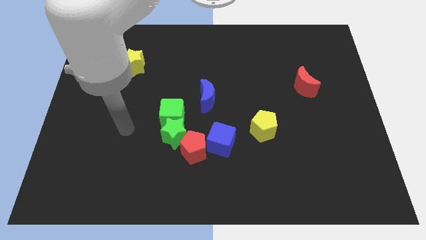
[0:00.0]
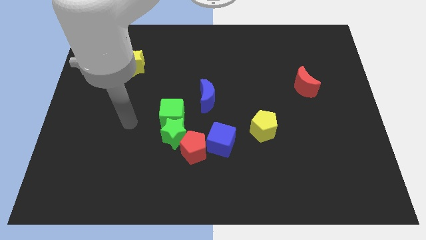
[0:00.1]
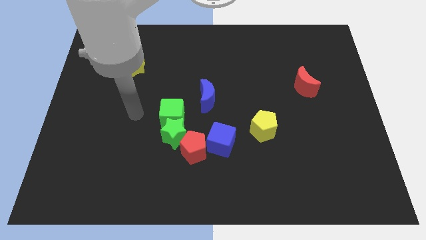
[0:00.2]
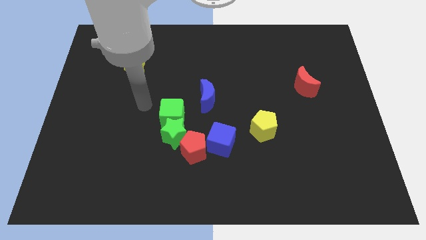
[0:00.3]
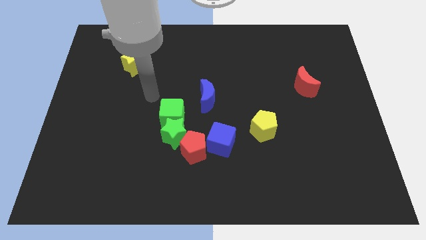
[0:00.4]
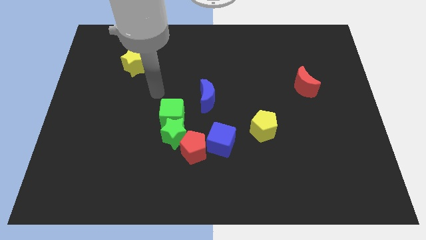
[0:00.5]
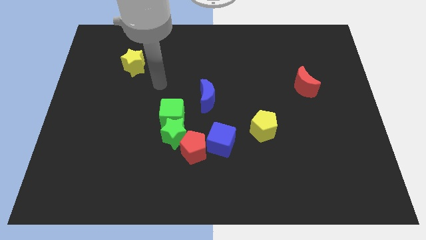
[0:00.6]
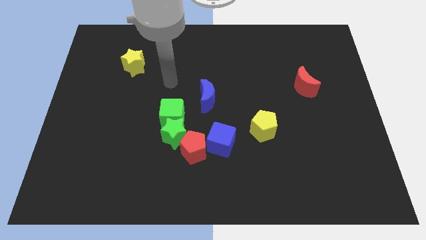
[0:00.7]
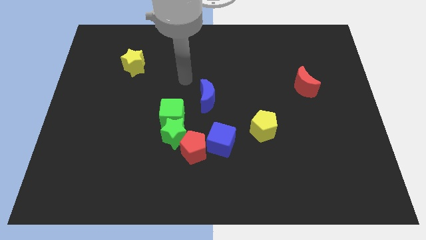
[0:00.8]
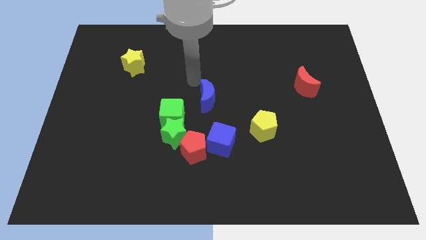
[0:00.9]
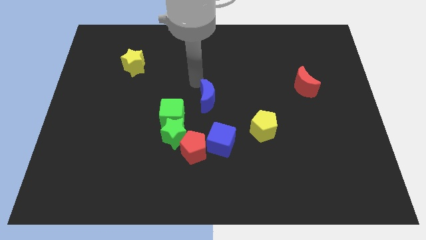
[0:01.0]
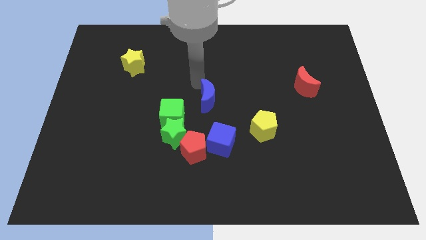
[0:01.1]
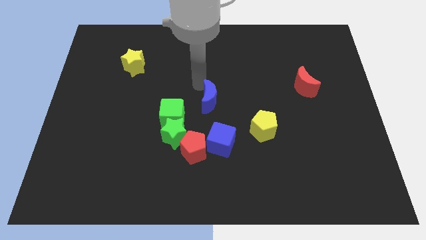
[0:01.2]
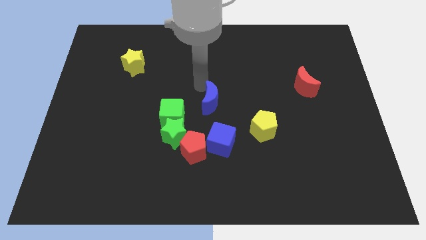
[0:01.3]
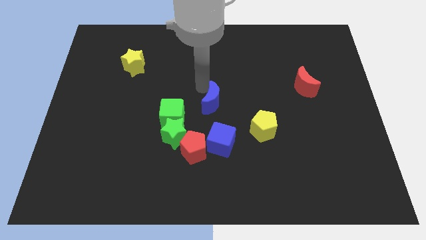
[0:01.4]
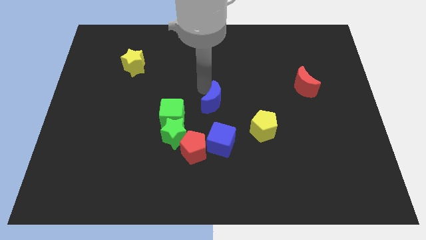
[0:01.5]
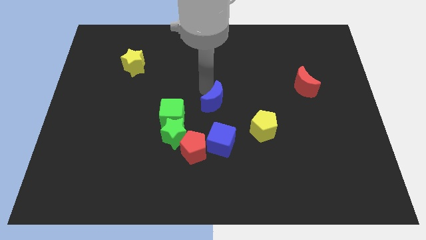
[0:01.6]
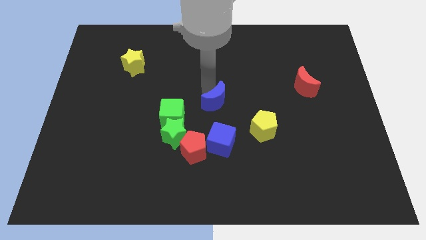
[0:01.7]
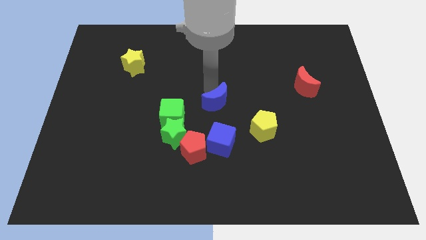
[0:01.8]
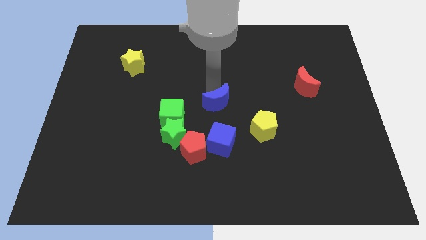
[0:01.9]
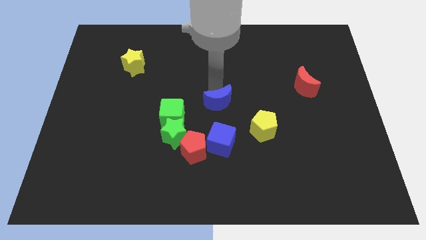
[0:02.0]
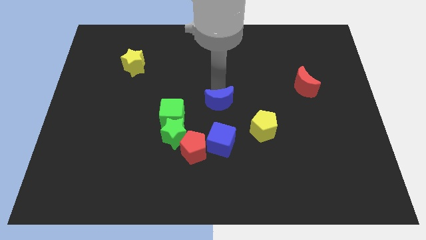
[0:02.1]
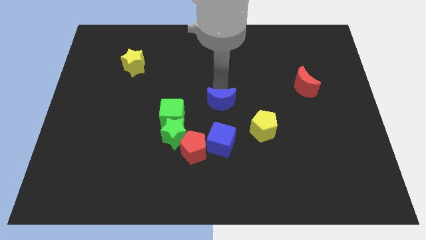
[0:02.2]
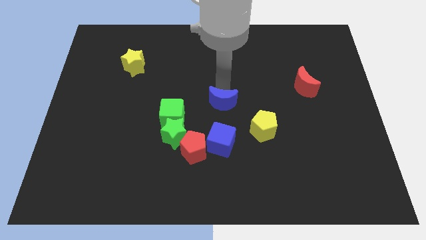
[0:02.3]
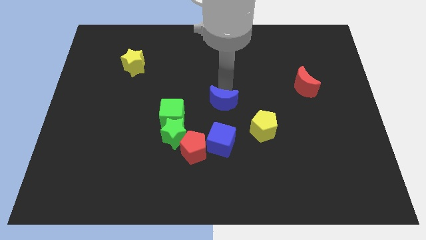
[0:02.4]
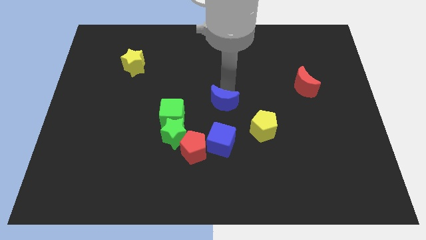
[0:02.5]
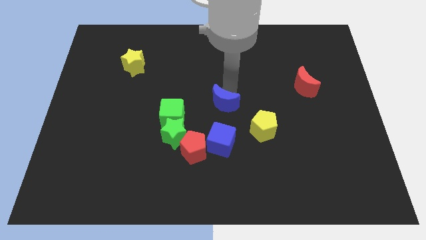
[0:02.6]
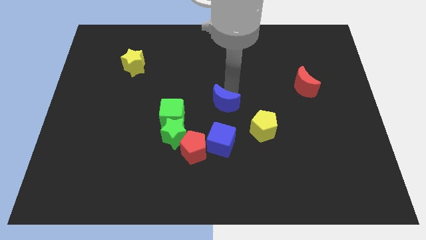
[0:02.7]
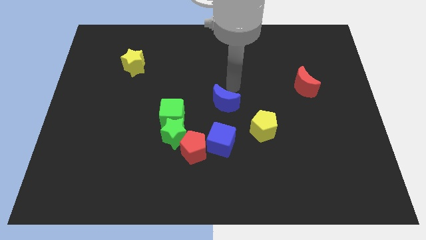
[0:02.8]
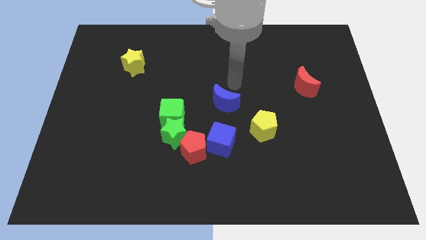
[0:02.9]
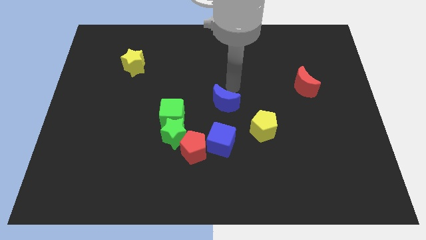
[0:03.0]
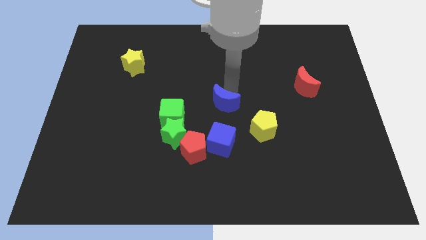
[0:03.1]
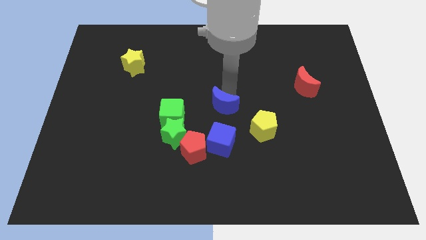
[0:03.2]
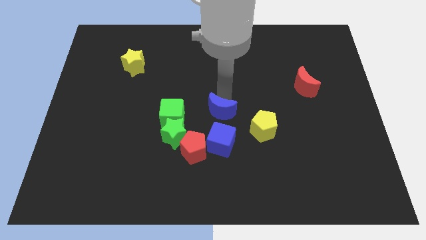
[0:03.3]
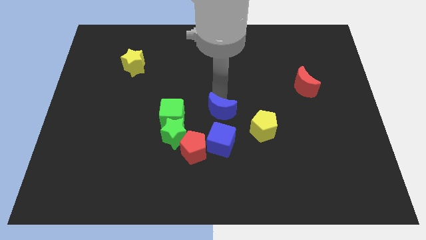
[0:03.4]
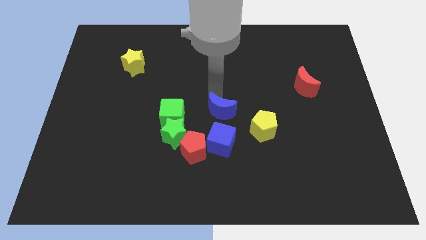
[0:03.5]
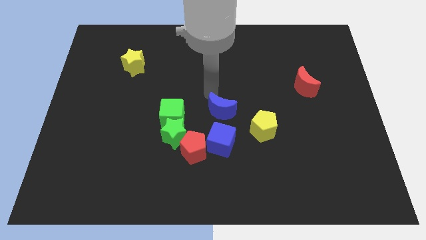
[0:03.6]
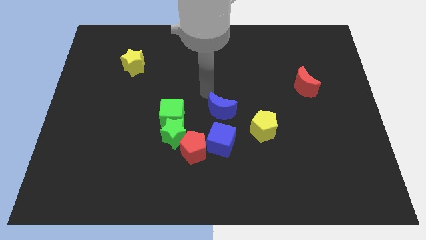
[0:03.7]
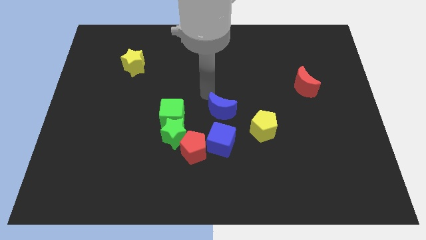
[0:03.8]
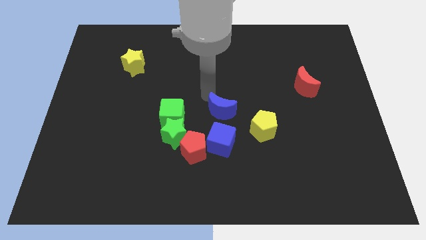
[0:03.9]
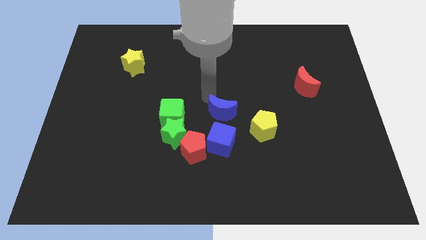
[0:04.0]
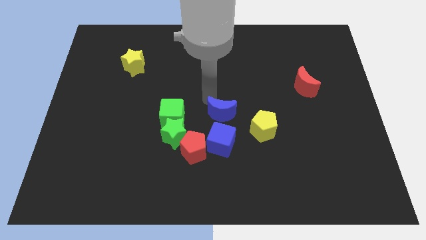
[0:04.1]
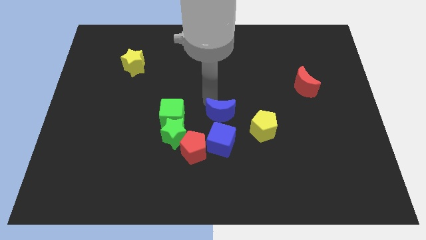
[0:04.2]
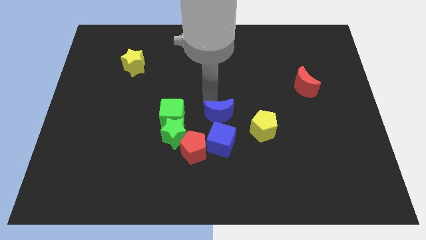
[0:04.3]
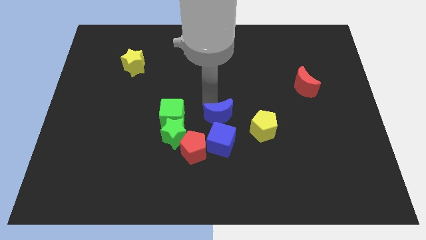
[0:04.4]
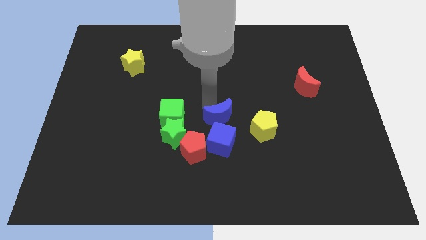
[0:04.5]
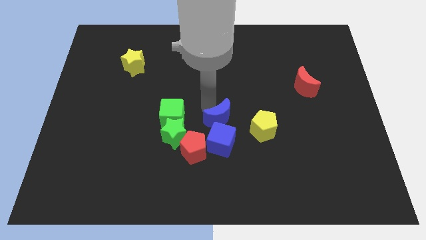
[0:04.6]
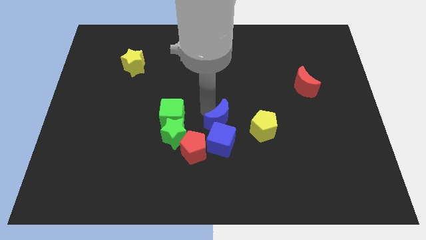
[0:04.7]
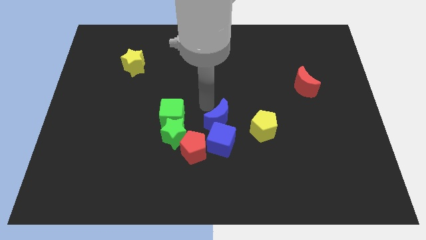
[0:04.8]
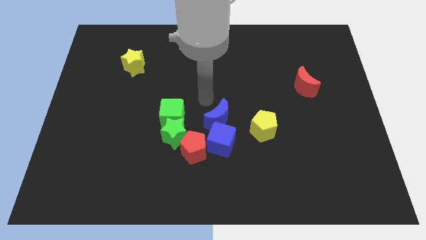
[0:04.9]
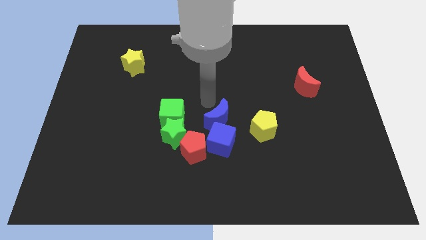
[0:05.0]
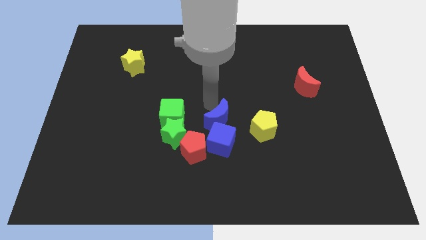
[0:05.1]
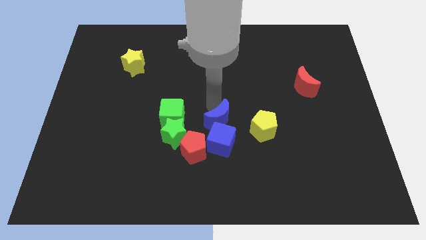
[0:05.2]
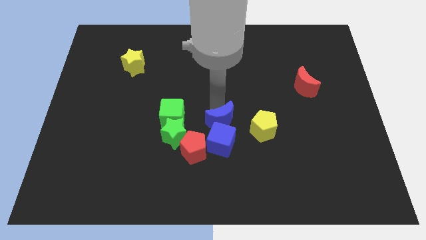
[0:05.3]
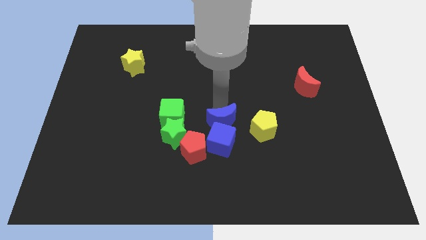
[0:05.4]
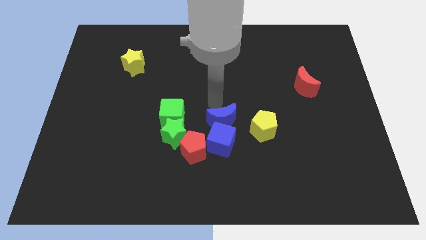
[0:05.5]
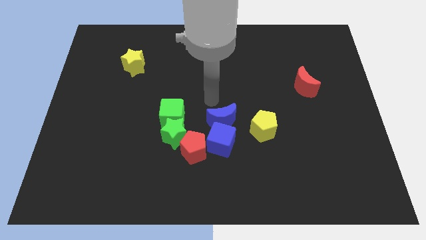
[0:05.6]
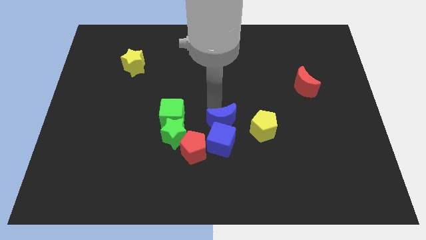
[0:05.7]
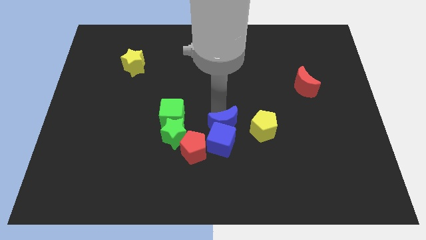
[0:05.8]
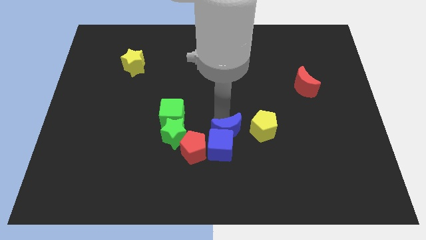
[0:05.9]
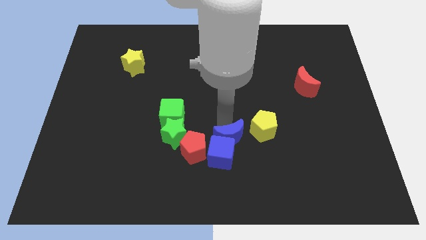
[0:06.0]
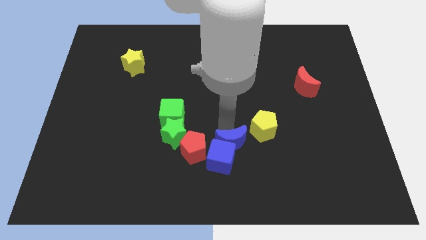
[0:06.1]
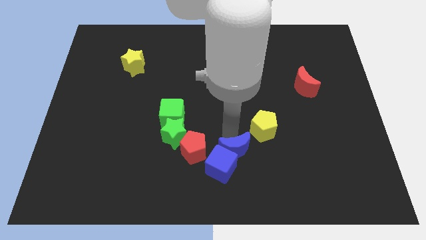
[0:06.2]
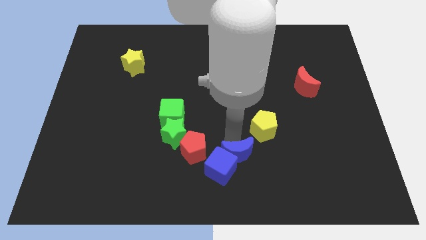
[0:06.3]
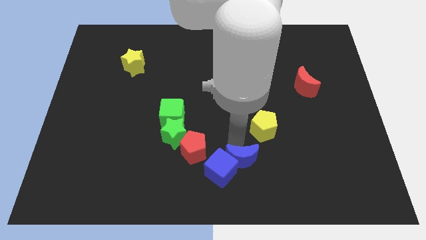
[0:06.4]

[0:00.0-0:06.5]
put the blue moon to the bottom side

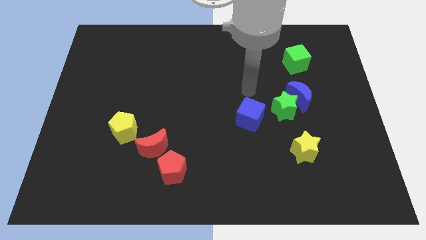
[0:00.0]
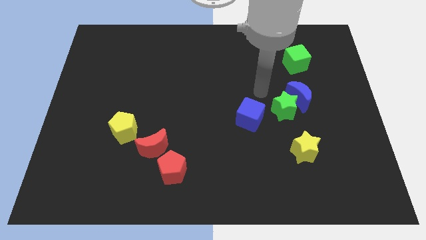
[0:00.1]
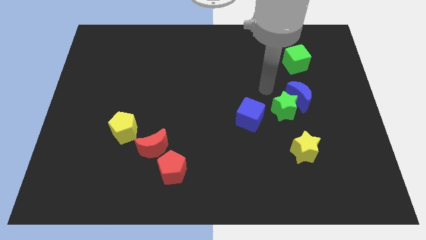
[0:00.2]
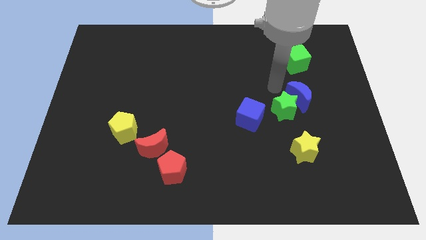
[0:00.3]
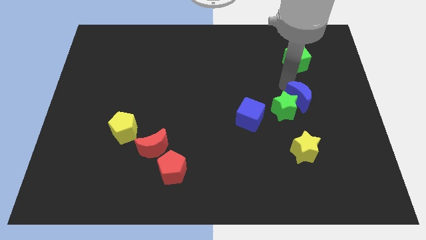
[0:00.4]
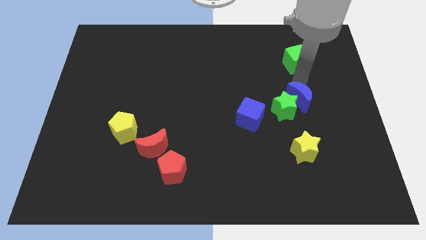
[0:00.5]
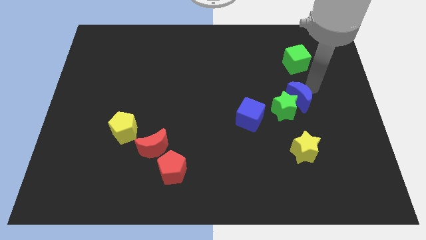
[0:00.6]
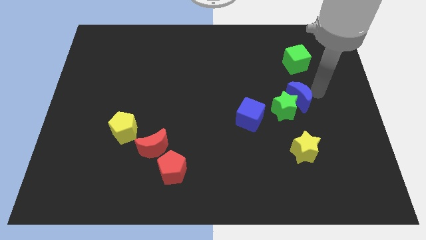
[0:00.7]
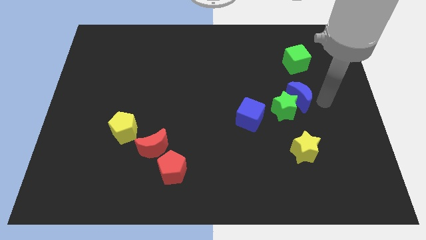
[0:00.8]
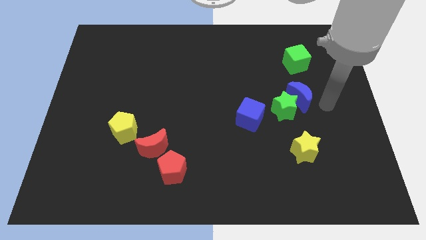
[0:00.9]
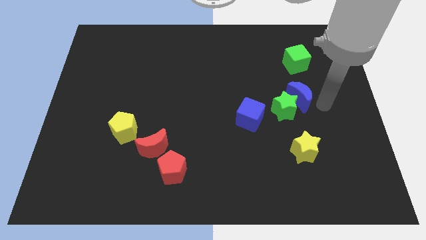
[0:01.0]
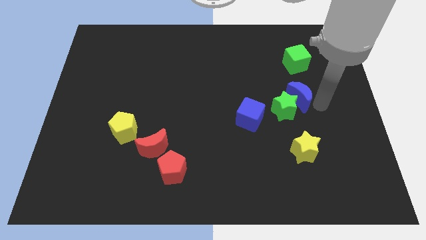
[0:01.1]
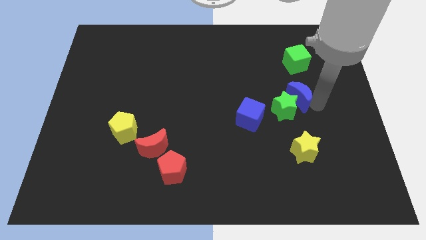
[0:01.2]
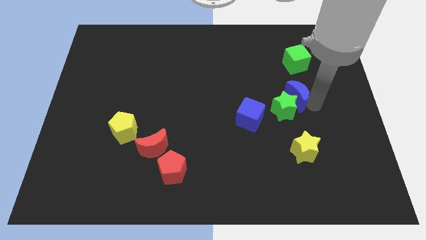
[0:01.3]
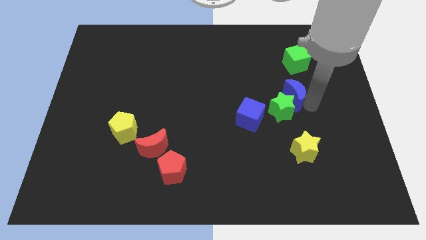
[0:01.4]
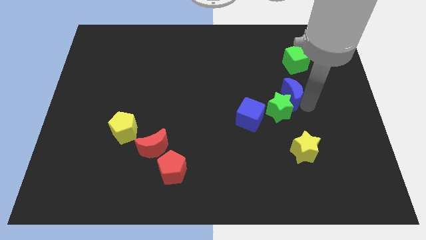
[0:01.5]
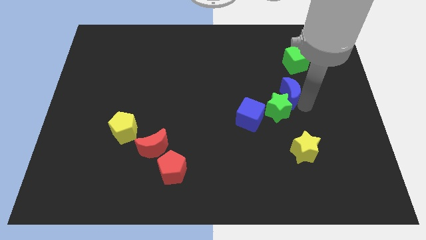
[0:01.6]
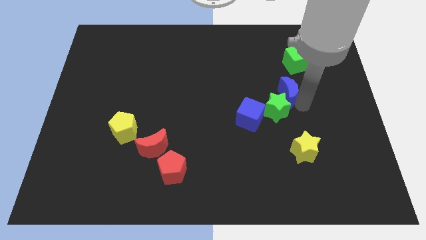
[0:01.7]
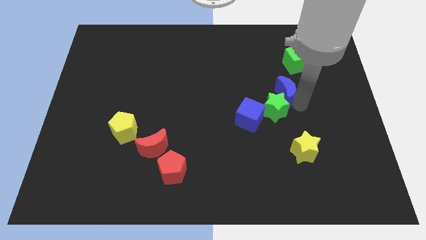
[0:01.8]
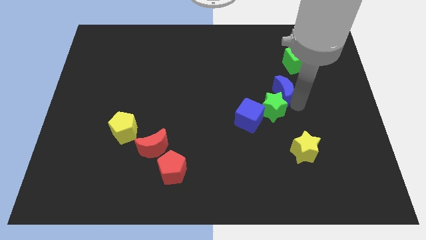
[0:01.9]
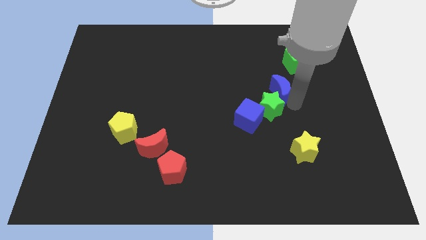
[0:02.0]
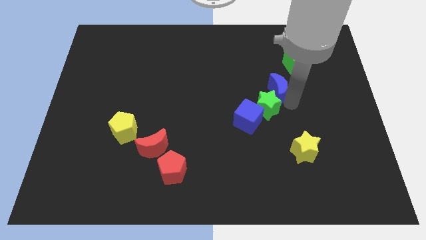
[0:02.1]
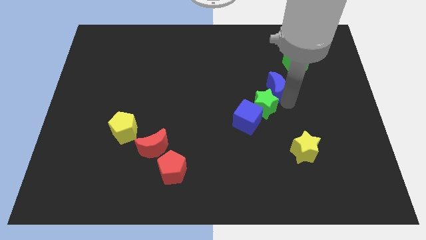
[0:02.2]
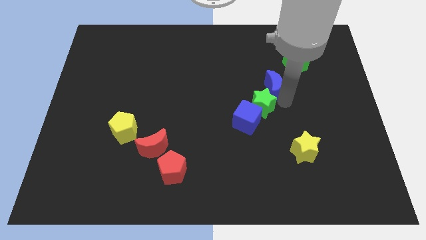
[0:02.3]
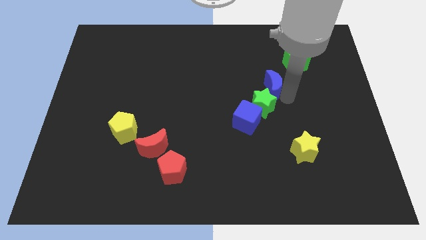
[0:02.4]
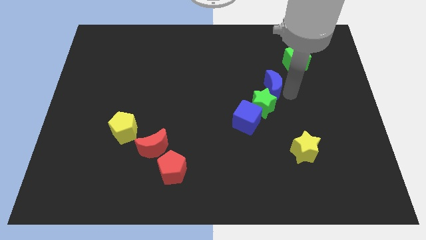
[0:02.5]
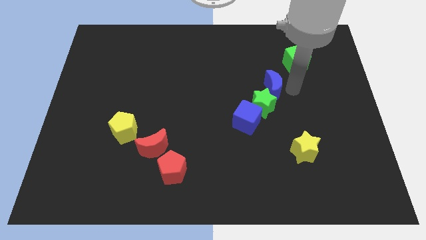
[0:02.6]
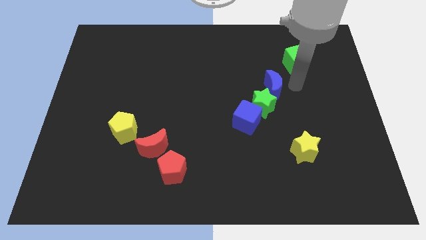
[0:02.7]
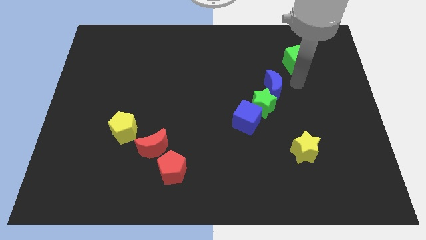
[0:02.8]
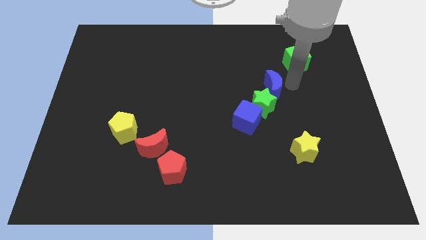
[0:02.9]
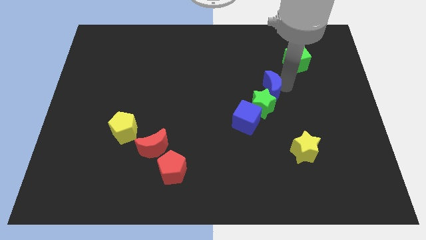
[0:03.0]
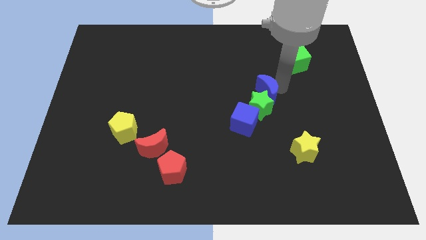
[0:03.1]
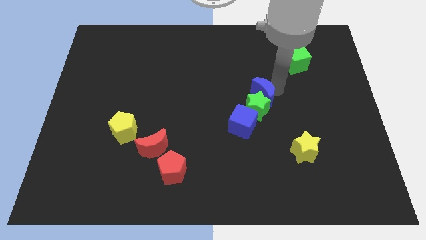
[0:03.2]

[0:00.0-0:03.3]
move the blue moon to the center
